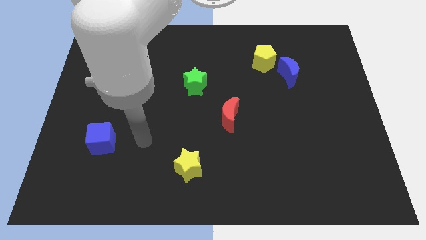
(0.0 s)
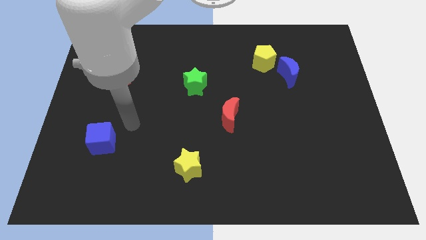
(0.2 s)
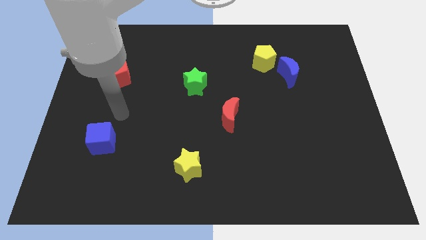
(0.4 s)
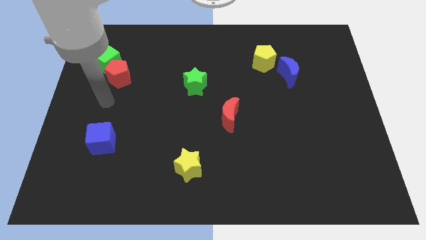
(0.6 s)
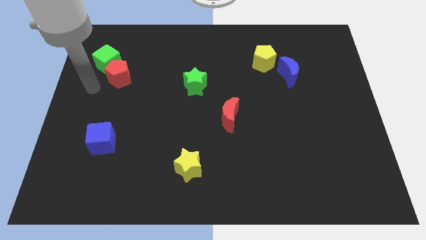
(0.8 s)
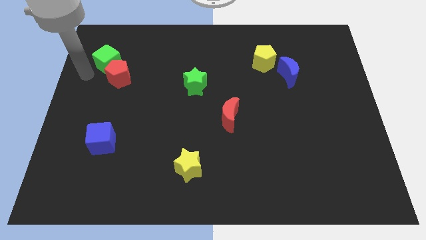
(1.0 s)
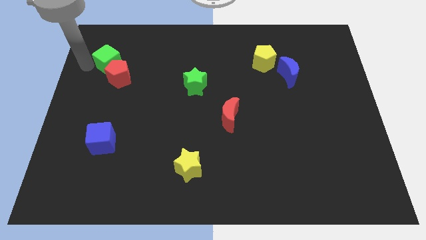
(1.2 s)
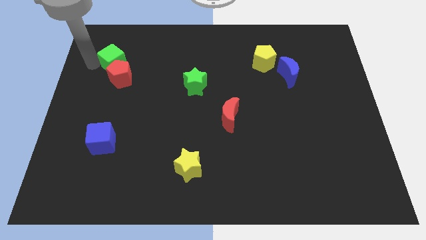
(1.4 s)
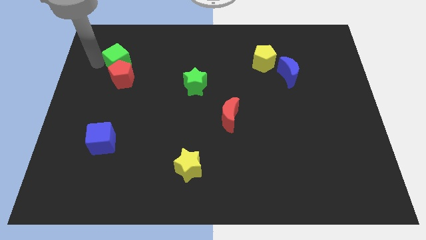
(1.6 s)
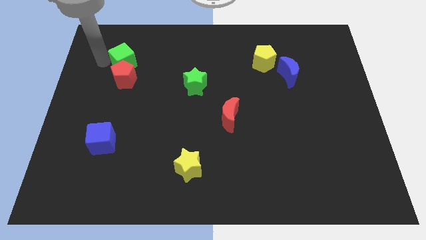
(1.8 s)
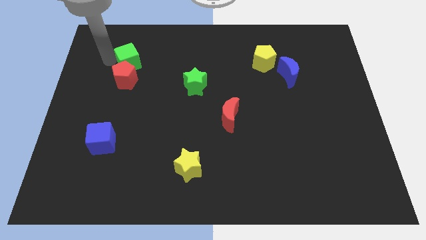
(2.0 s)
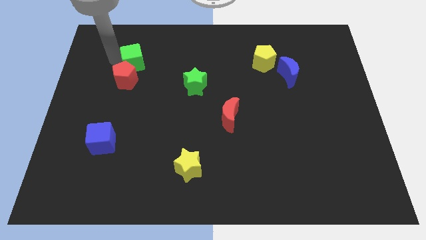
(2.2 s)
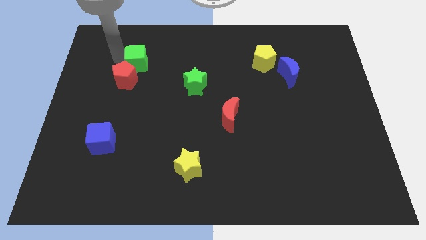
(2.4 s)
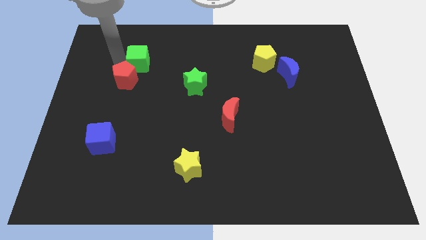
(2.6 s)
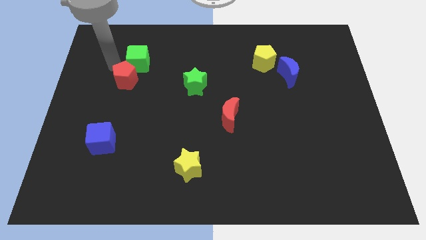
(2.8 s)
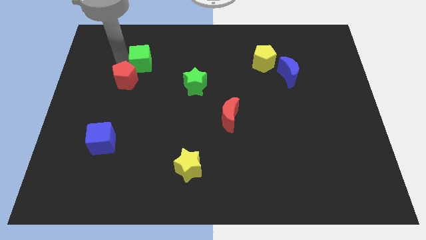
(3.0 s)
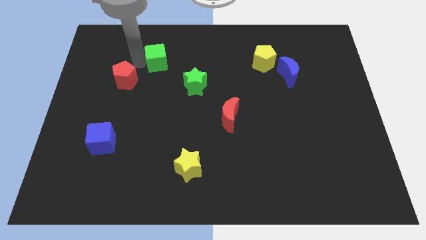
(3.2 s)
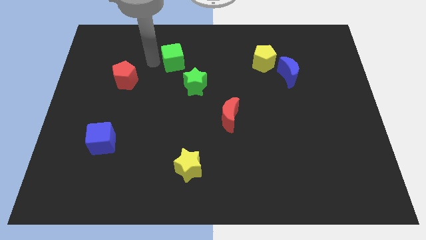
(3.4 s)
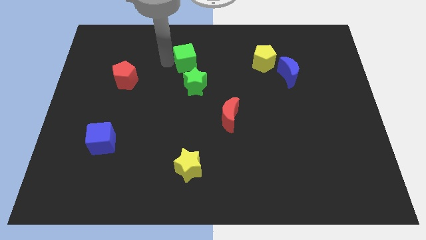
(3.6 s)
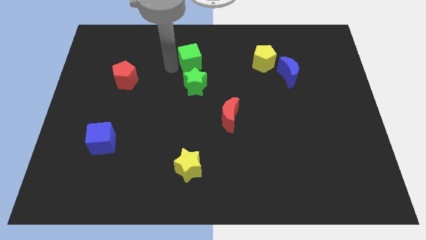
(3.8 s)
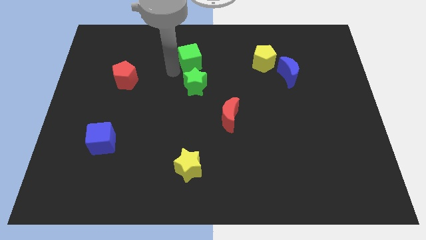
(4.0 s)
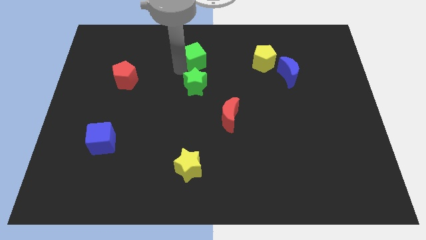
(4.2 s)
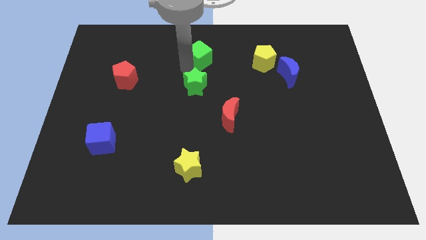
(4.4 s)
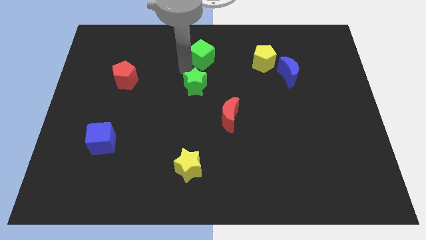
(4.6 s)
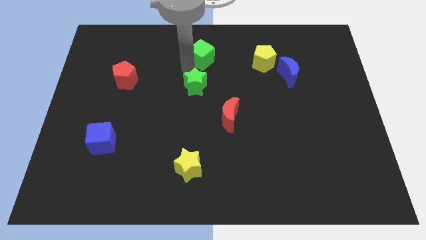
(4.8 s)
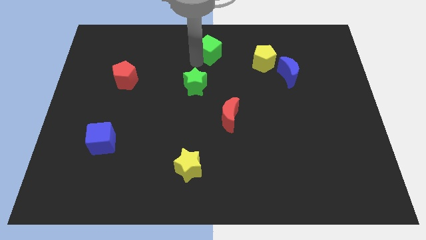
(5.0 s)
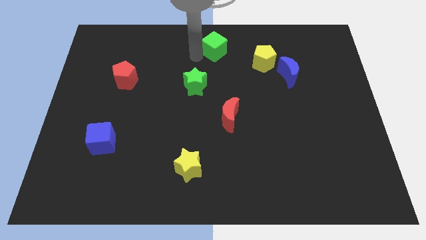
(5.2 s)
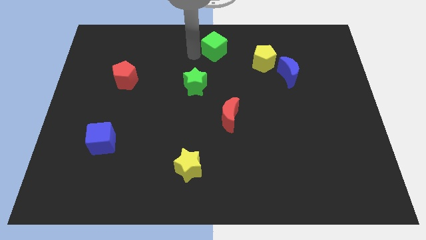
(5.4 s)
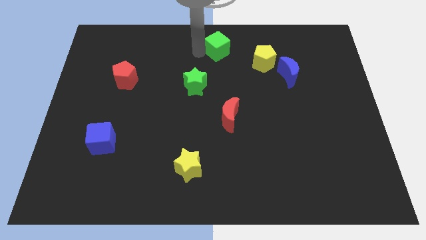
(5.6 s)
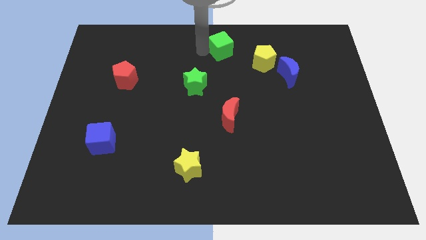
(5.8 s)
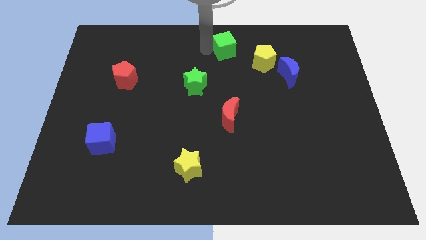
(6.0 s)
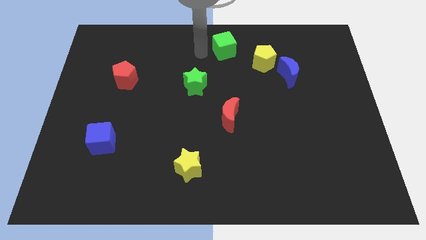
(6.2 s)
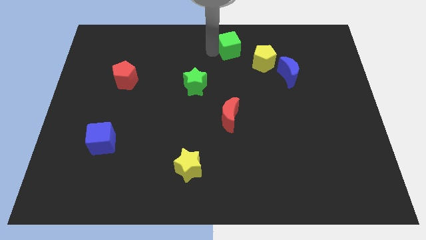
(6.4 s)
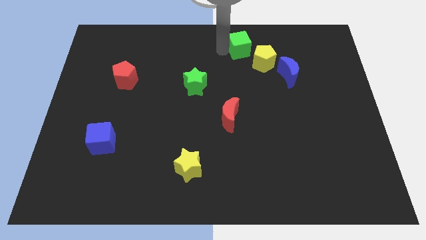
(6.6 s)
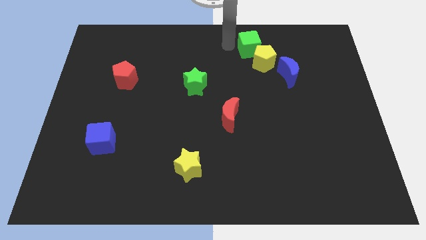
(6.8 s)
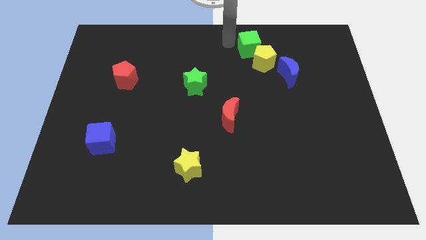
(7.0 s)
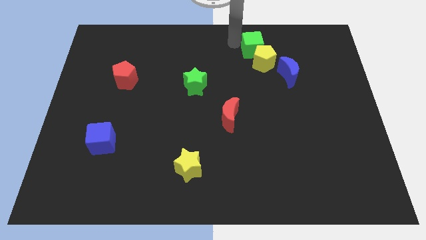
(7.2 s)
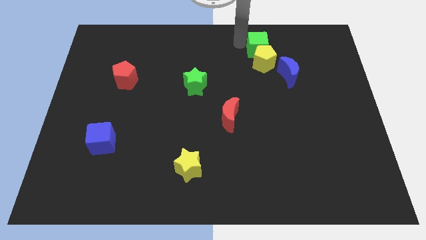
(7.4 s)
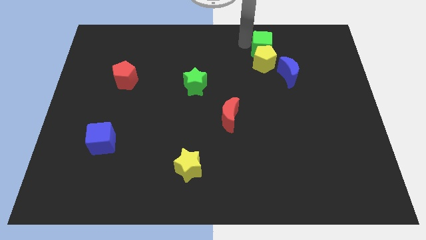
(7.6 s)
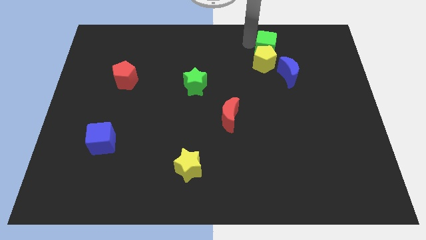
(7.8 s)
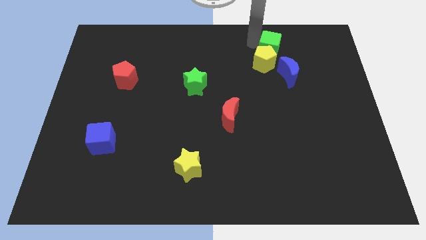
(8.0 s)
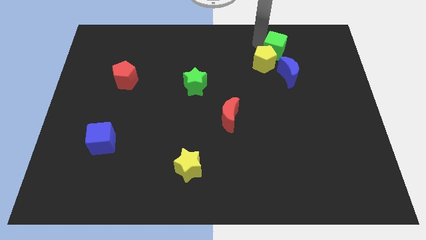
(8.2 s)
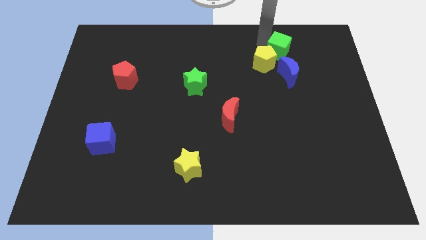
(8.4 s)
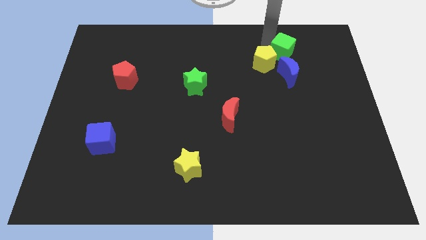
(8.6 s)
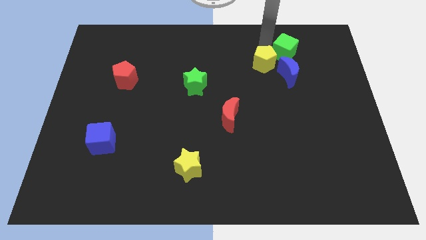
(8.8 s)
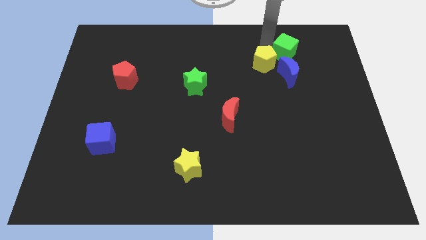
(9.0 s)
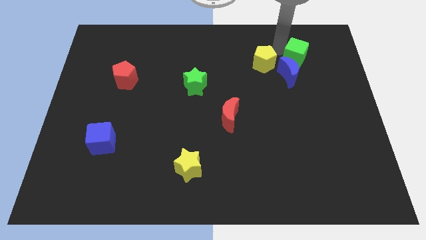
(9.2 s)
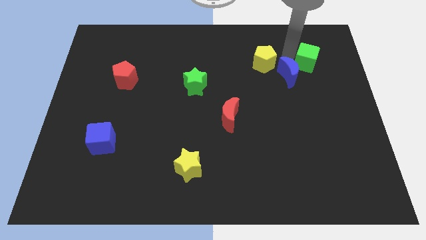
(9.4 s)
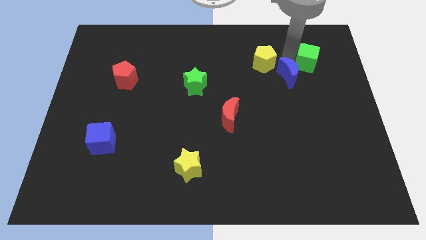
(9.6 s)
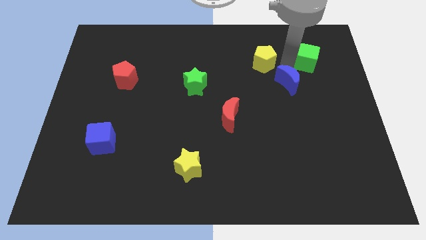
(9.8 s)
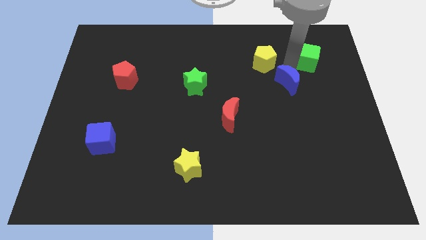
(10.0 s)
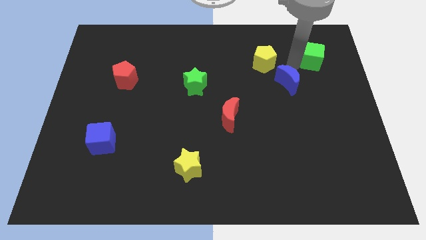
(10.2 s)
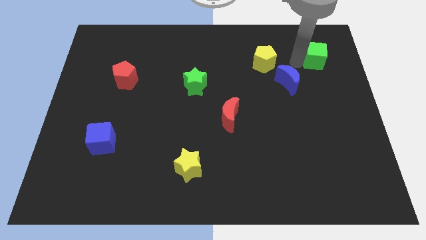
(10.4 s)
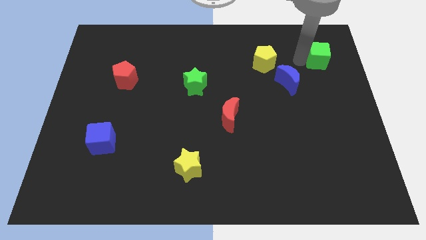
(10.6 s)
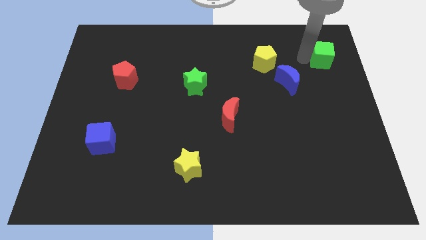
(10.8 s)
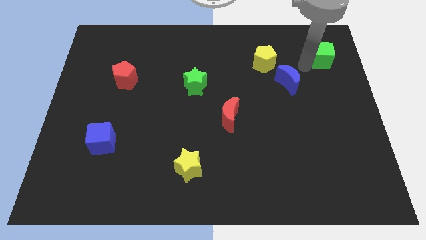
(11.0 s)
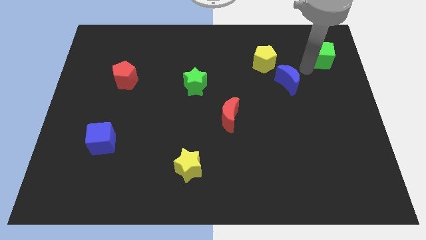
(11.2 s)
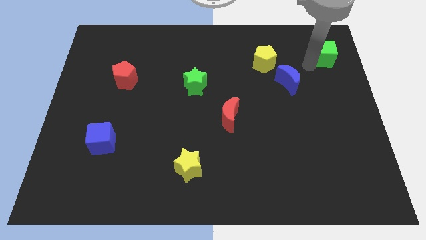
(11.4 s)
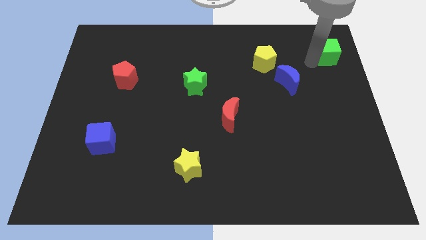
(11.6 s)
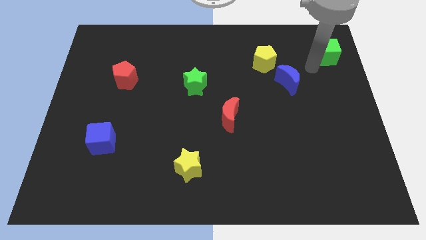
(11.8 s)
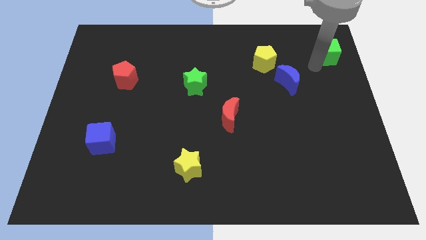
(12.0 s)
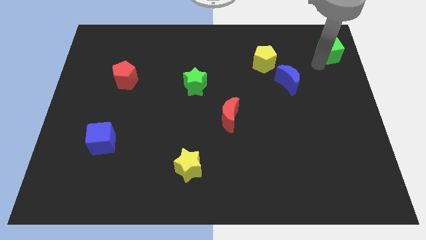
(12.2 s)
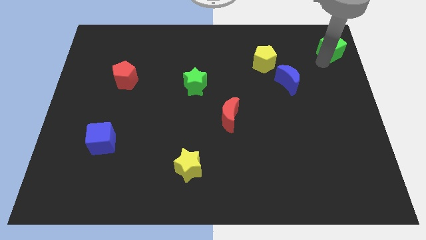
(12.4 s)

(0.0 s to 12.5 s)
slide the green cube to the top right corner
